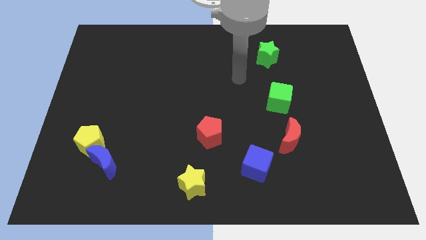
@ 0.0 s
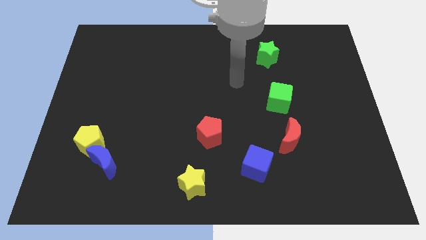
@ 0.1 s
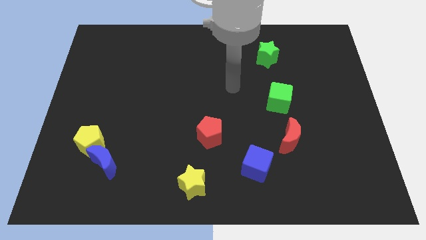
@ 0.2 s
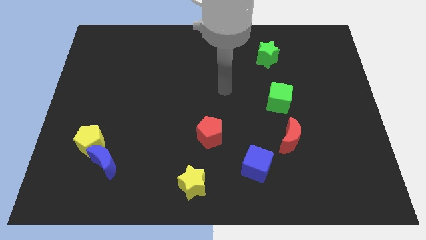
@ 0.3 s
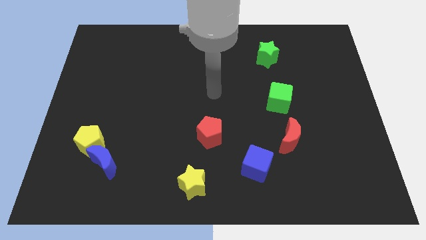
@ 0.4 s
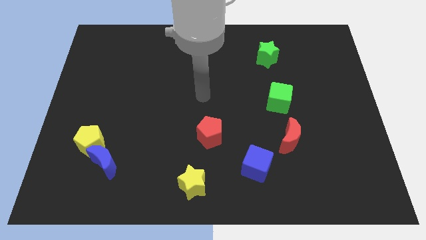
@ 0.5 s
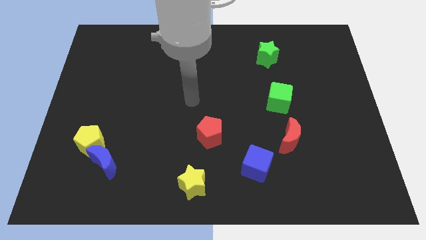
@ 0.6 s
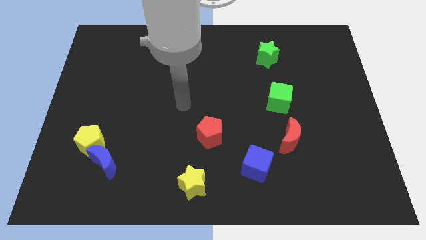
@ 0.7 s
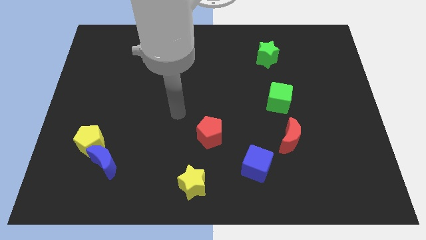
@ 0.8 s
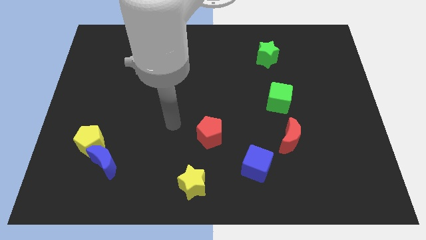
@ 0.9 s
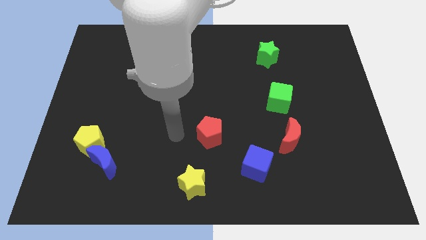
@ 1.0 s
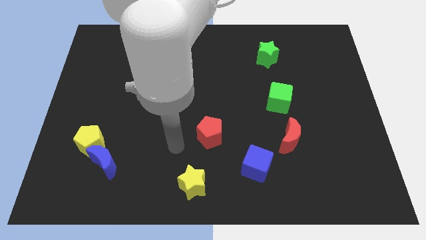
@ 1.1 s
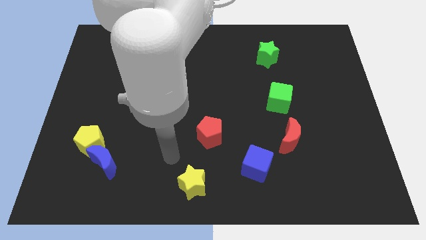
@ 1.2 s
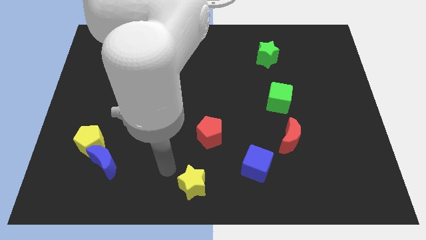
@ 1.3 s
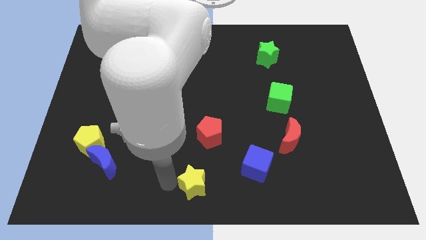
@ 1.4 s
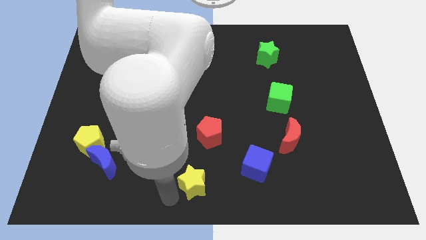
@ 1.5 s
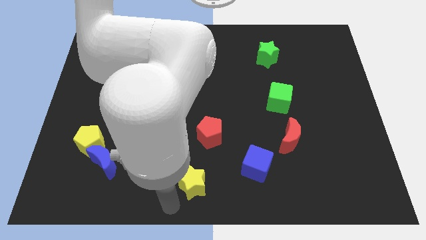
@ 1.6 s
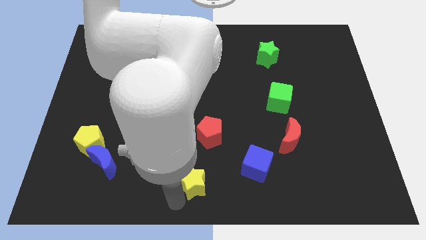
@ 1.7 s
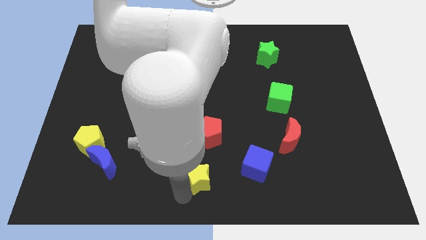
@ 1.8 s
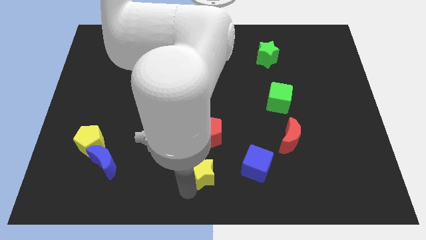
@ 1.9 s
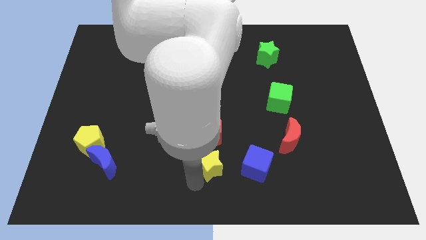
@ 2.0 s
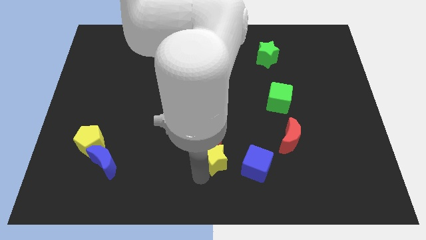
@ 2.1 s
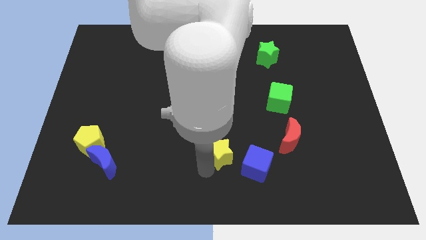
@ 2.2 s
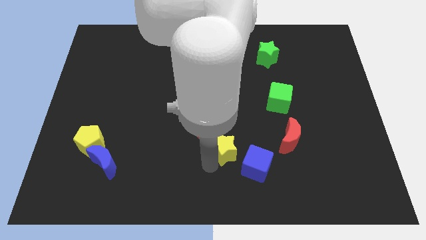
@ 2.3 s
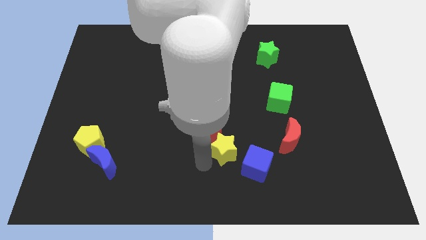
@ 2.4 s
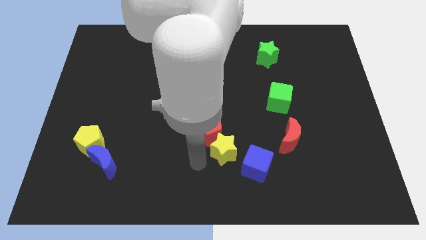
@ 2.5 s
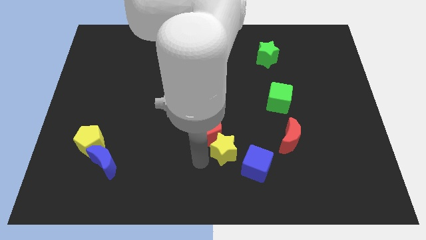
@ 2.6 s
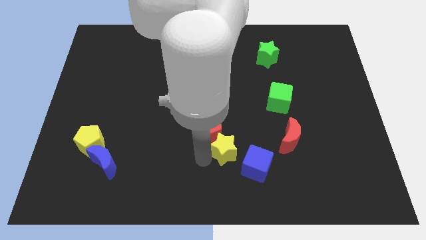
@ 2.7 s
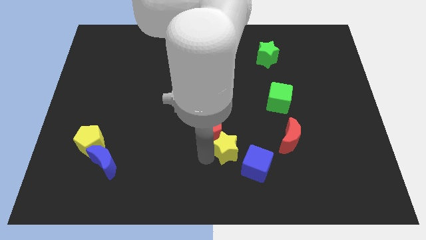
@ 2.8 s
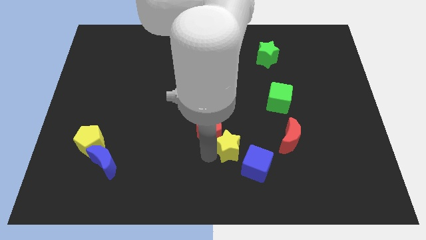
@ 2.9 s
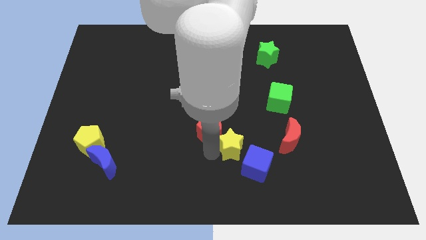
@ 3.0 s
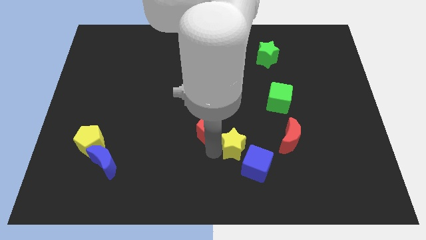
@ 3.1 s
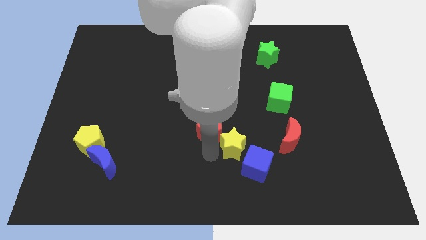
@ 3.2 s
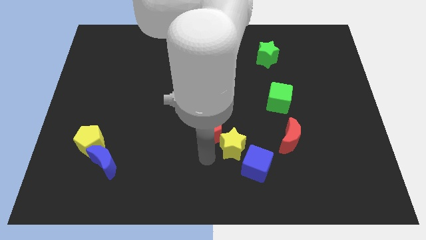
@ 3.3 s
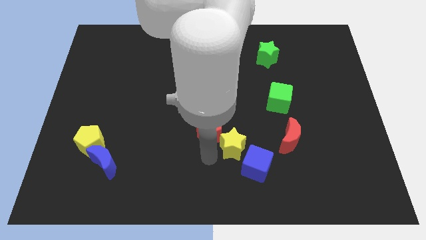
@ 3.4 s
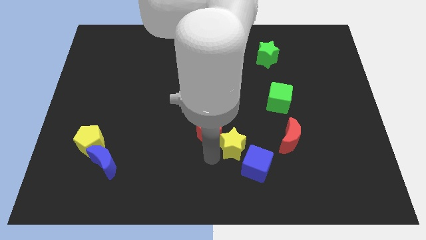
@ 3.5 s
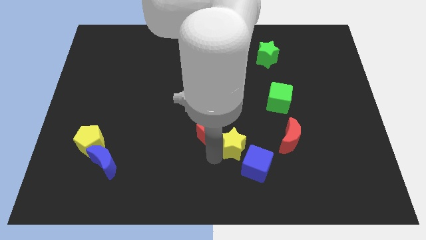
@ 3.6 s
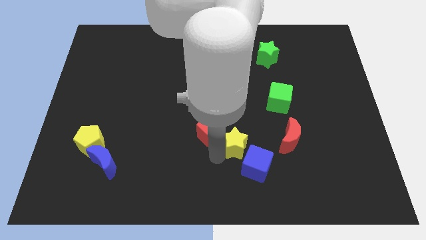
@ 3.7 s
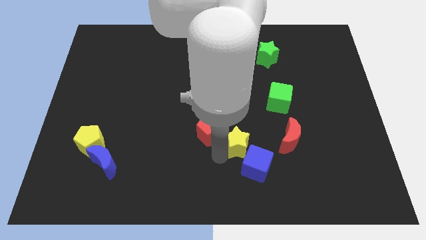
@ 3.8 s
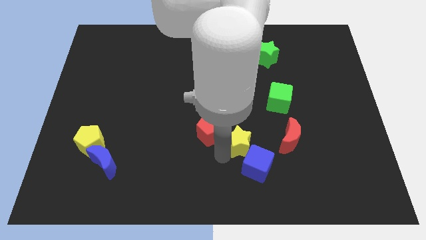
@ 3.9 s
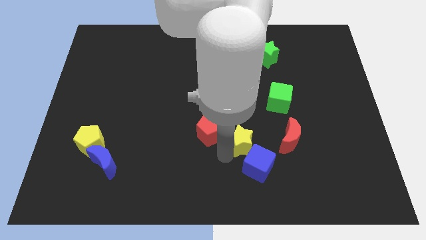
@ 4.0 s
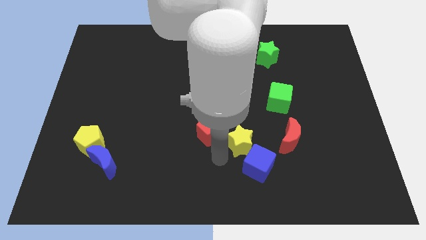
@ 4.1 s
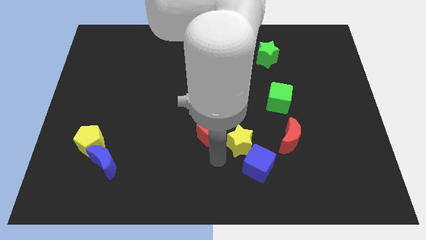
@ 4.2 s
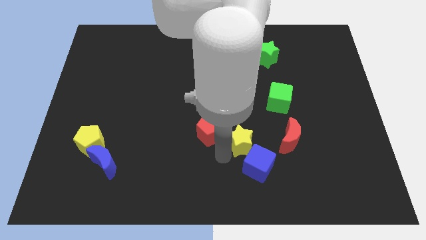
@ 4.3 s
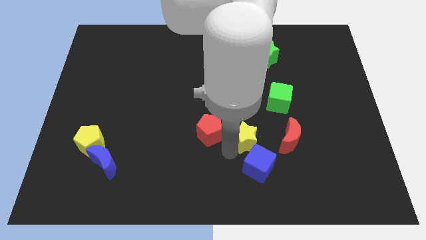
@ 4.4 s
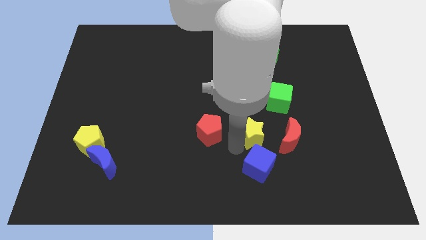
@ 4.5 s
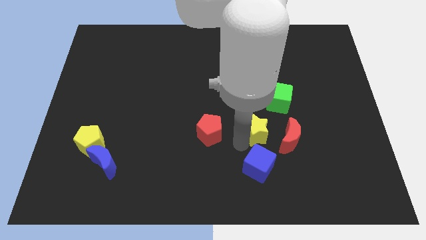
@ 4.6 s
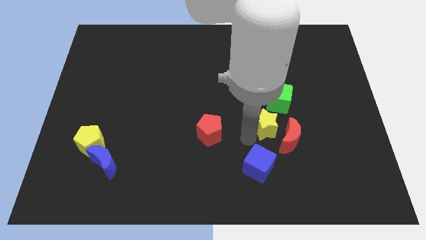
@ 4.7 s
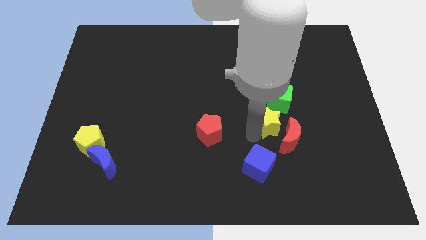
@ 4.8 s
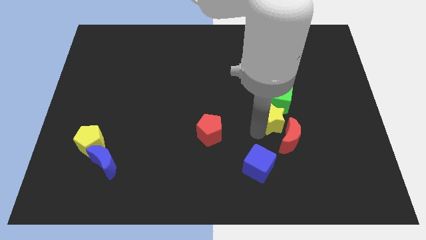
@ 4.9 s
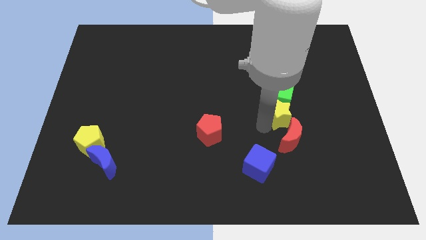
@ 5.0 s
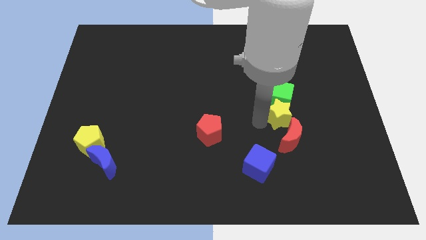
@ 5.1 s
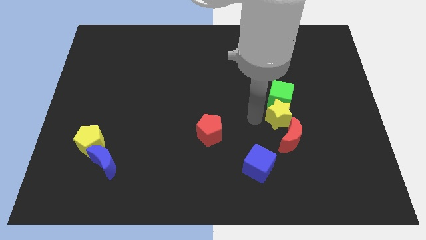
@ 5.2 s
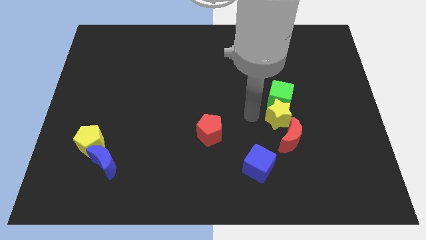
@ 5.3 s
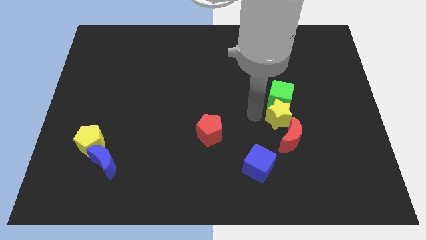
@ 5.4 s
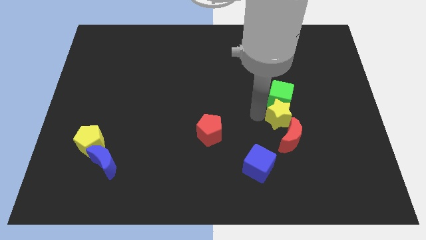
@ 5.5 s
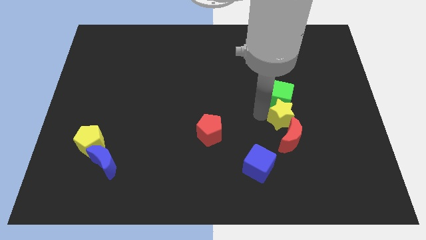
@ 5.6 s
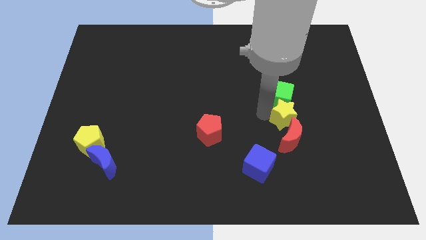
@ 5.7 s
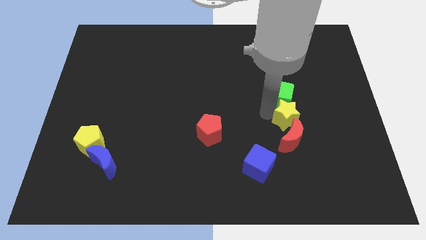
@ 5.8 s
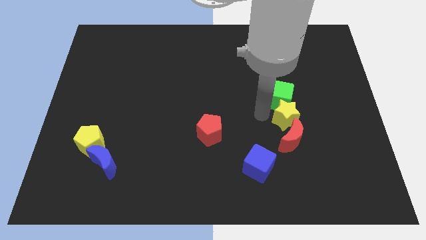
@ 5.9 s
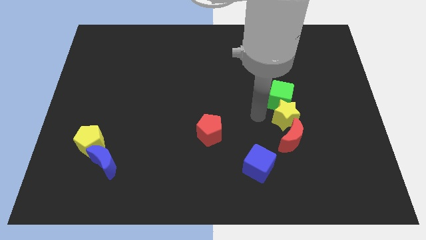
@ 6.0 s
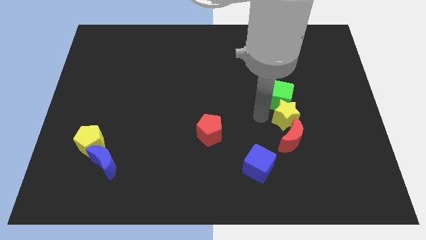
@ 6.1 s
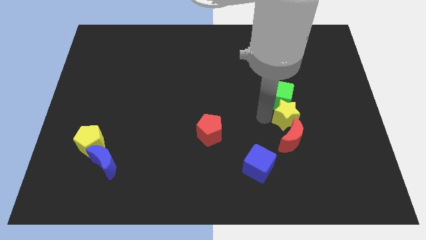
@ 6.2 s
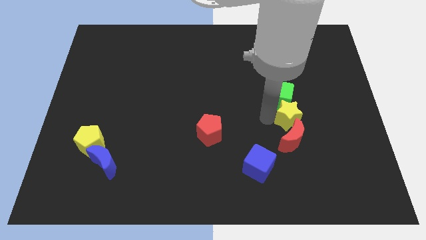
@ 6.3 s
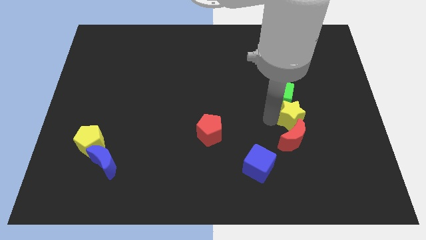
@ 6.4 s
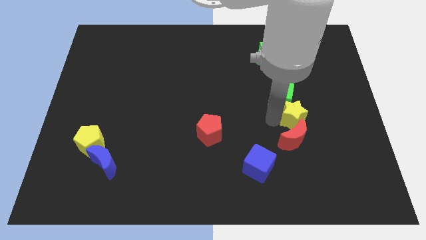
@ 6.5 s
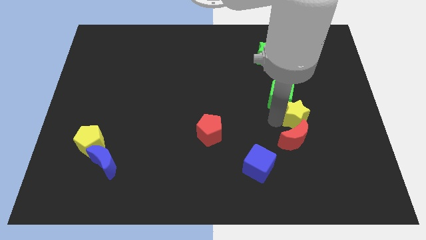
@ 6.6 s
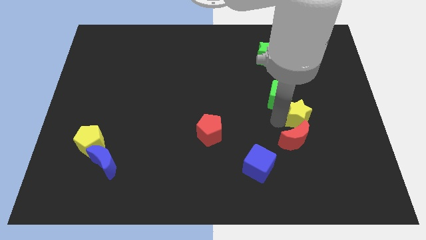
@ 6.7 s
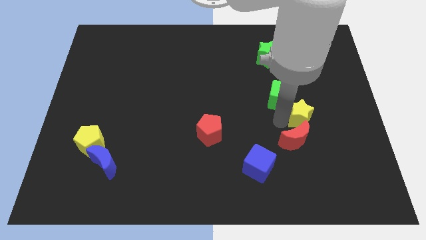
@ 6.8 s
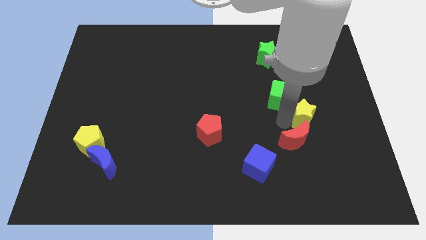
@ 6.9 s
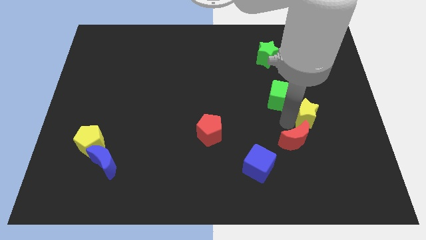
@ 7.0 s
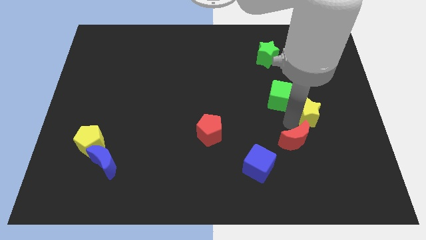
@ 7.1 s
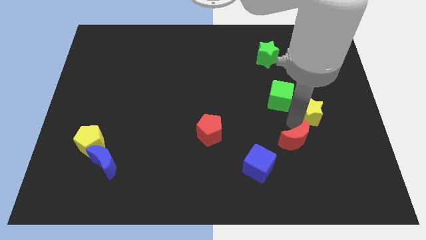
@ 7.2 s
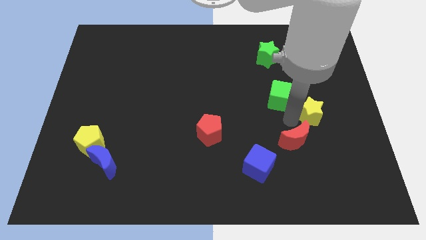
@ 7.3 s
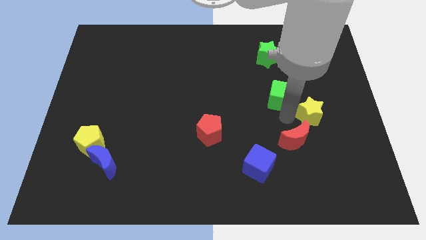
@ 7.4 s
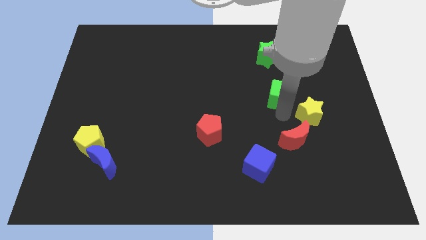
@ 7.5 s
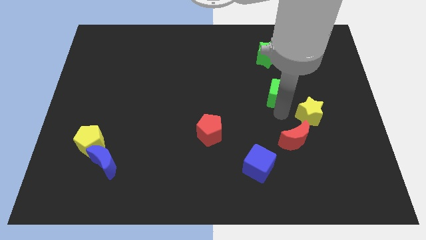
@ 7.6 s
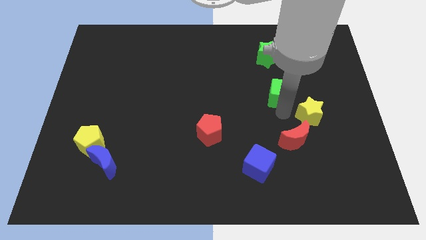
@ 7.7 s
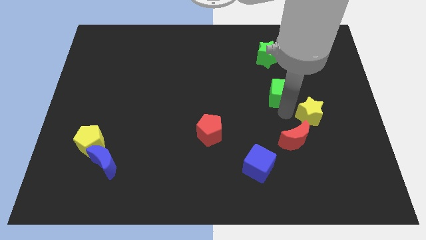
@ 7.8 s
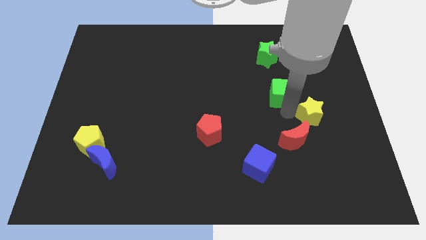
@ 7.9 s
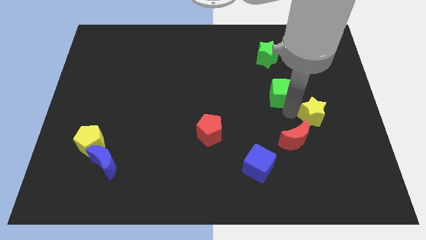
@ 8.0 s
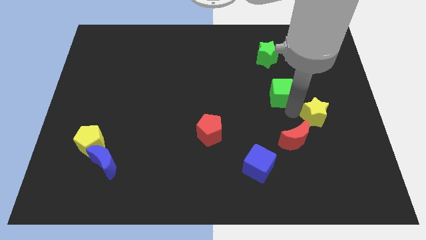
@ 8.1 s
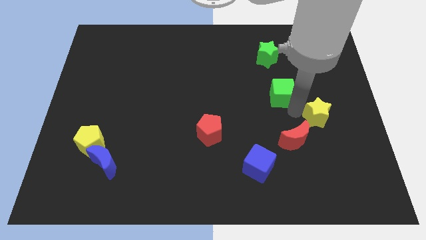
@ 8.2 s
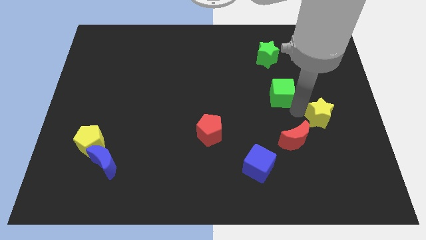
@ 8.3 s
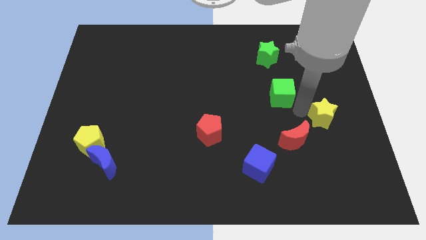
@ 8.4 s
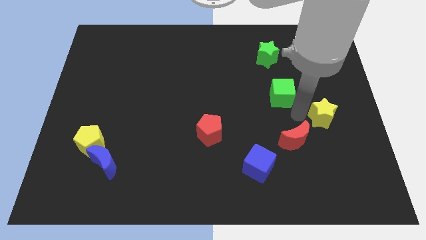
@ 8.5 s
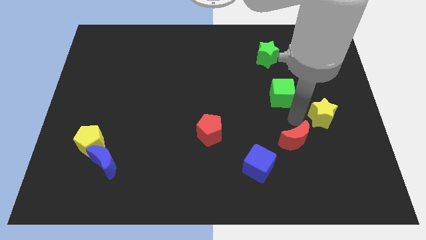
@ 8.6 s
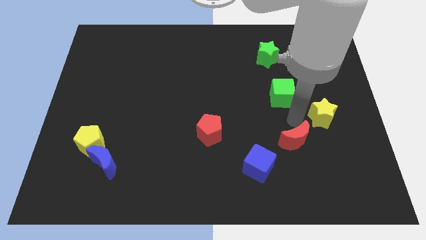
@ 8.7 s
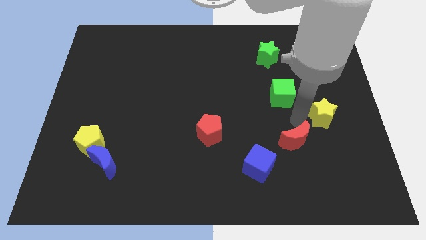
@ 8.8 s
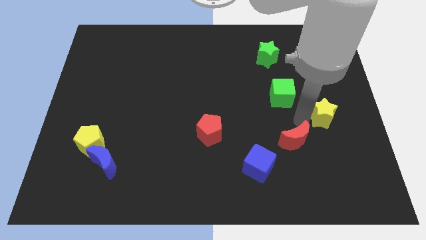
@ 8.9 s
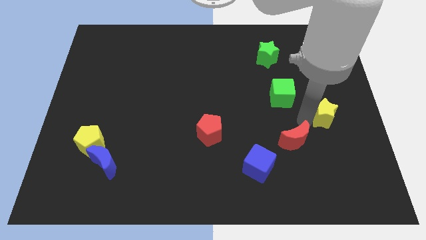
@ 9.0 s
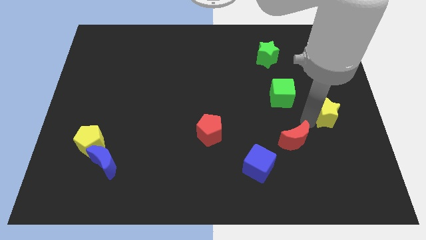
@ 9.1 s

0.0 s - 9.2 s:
put the yellow star to the right side of the board
